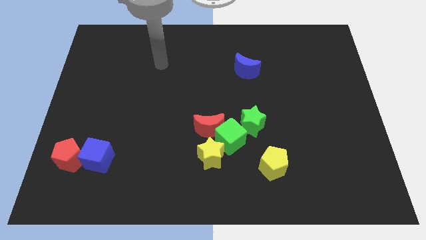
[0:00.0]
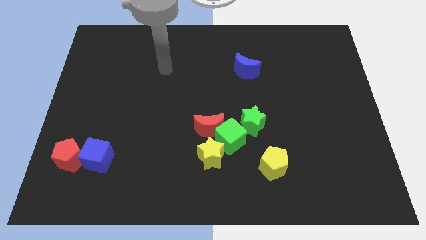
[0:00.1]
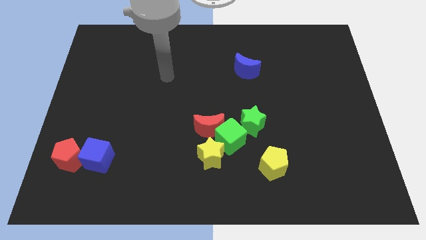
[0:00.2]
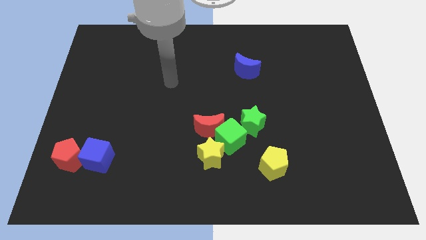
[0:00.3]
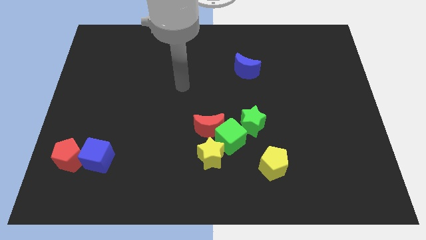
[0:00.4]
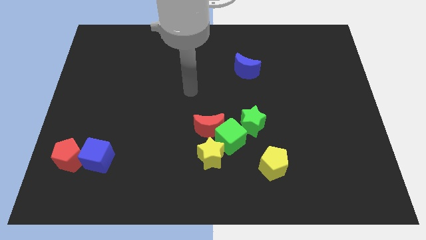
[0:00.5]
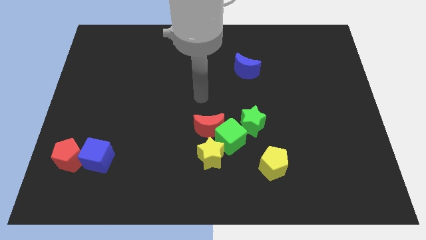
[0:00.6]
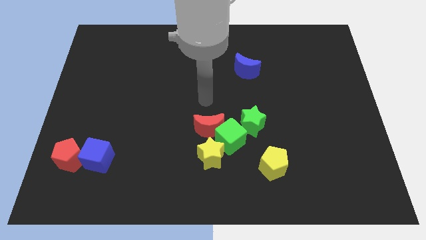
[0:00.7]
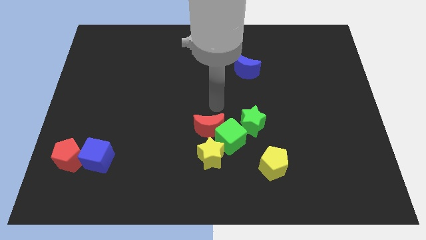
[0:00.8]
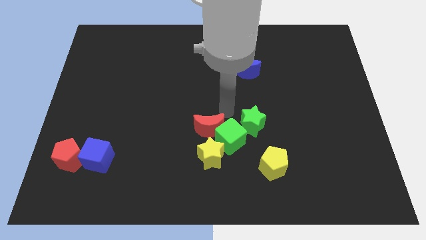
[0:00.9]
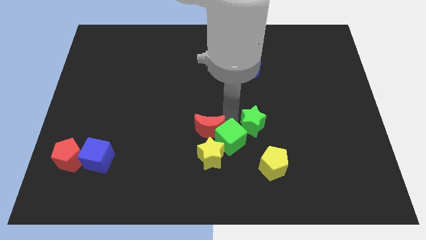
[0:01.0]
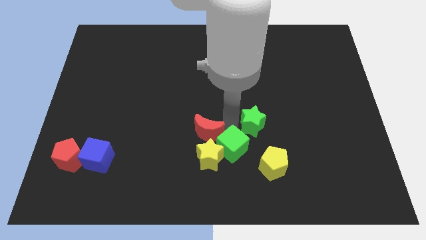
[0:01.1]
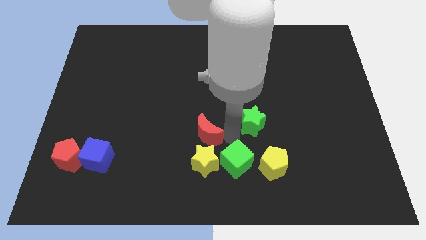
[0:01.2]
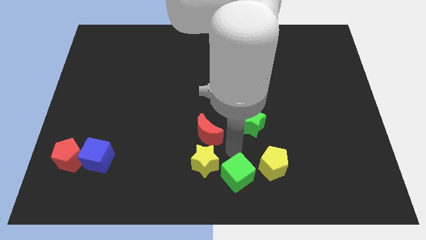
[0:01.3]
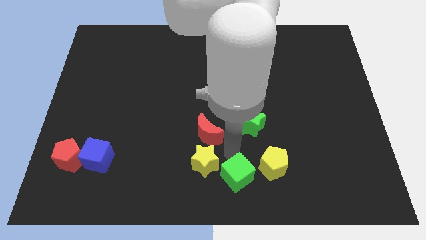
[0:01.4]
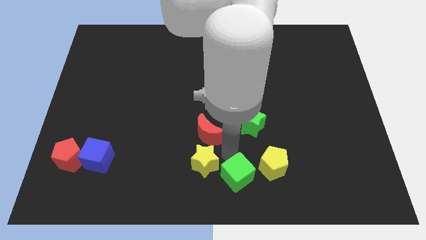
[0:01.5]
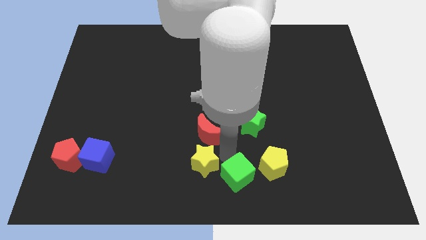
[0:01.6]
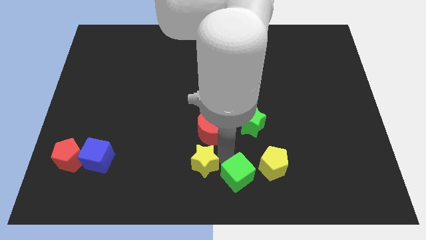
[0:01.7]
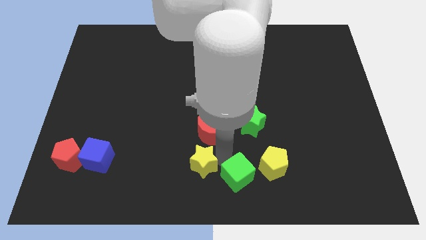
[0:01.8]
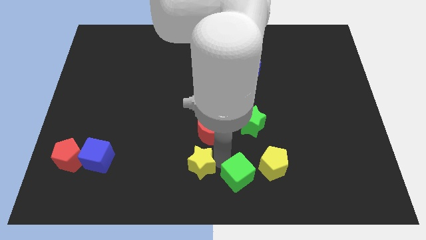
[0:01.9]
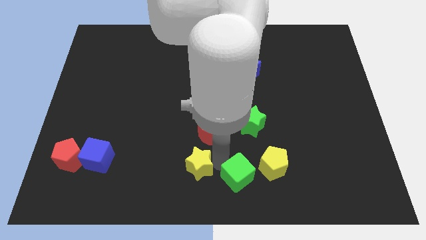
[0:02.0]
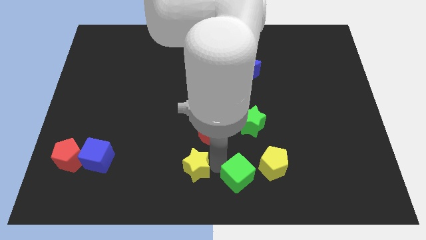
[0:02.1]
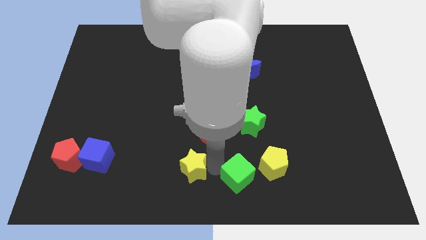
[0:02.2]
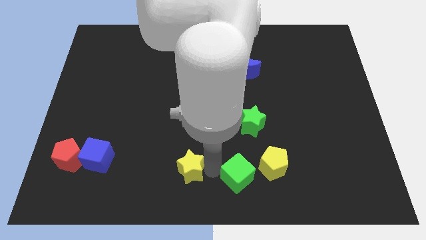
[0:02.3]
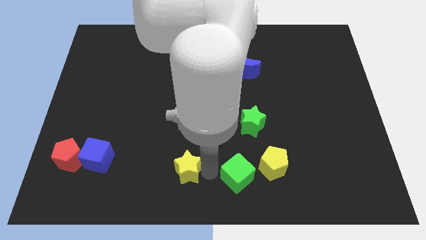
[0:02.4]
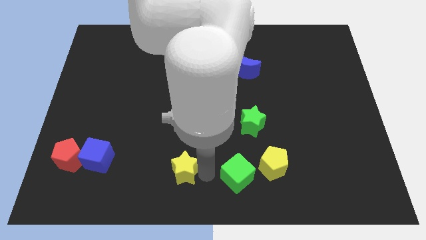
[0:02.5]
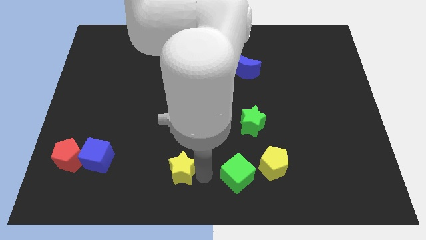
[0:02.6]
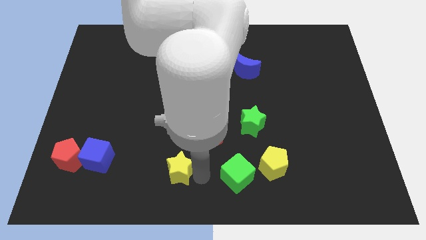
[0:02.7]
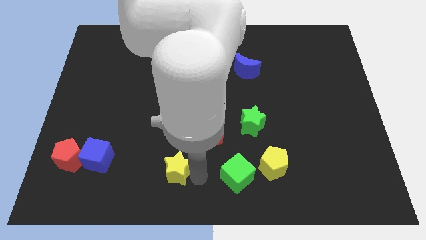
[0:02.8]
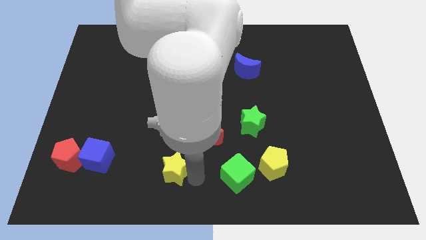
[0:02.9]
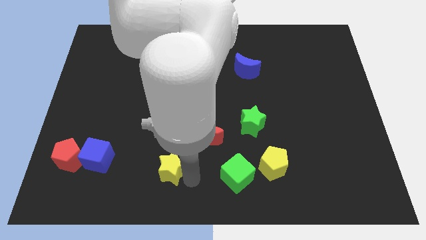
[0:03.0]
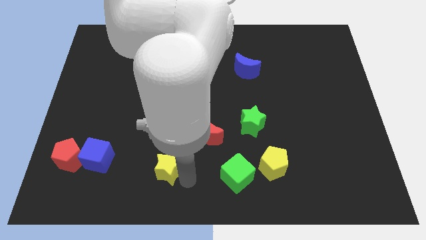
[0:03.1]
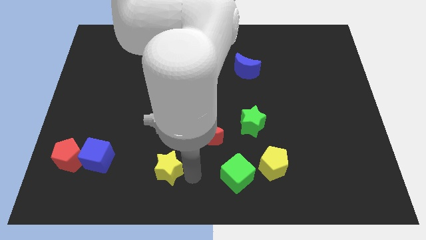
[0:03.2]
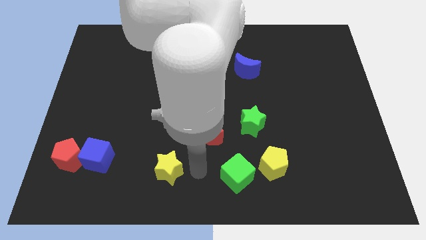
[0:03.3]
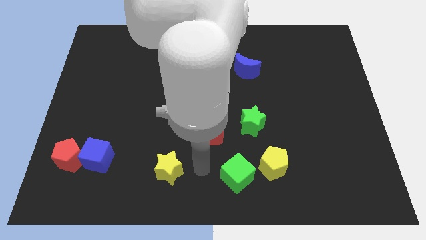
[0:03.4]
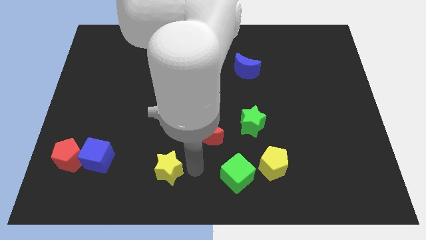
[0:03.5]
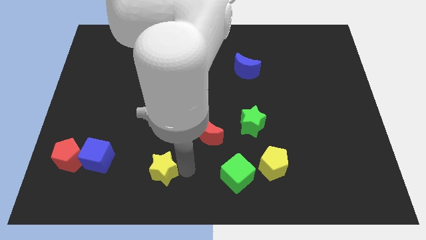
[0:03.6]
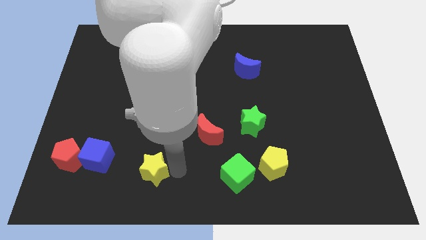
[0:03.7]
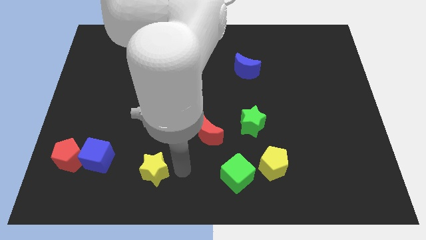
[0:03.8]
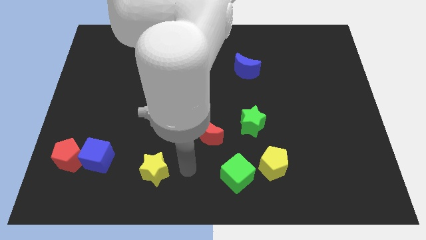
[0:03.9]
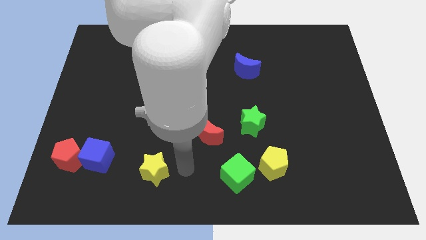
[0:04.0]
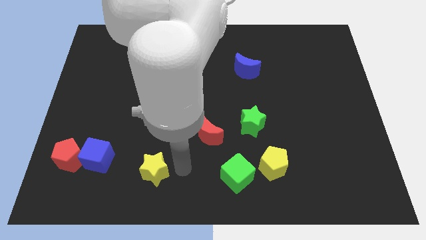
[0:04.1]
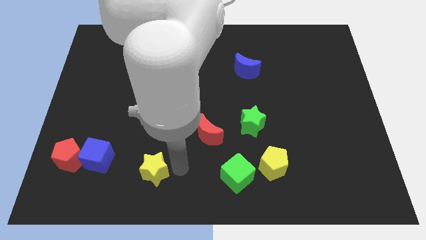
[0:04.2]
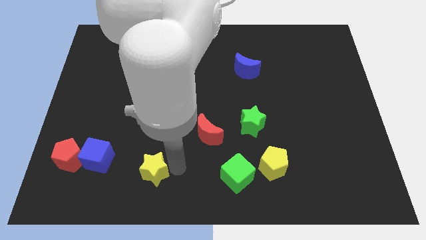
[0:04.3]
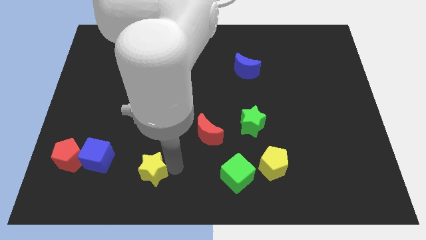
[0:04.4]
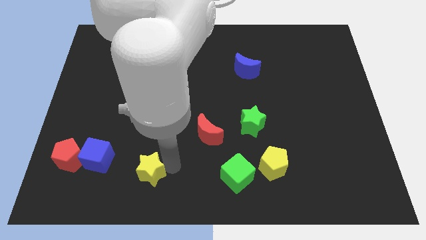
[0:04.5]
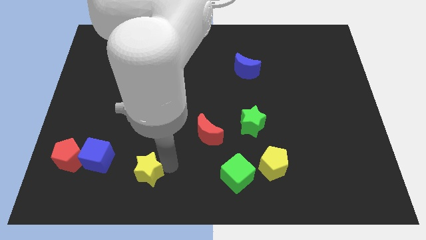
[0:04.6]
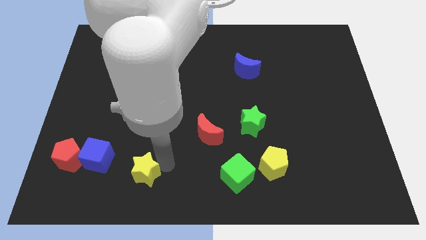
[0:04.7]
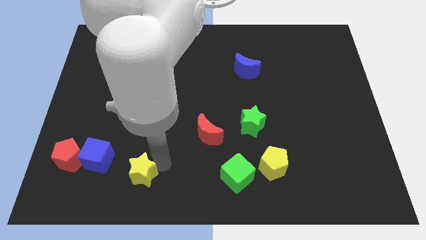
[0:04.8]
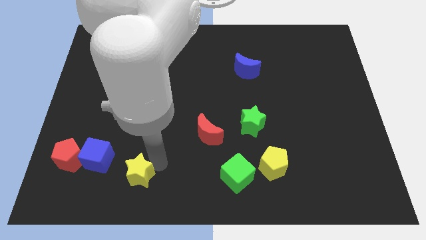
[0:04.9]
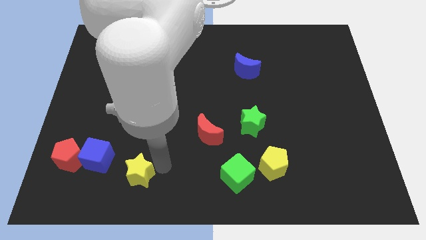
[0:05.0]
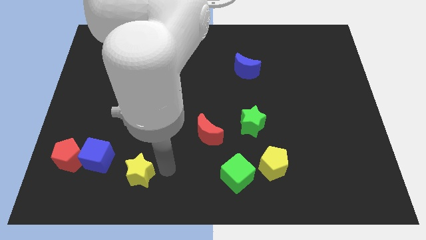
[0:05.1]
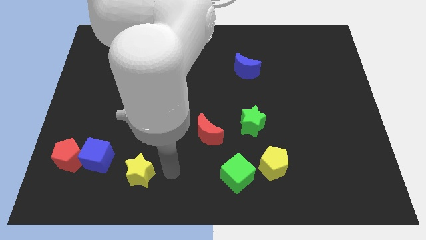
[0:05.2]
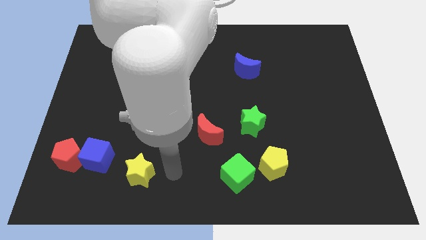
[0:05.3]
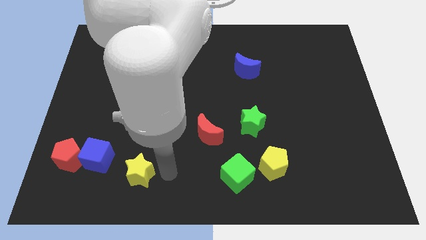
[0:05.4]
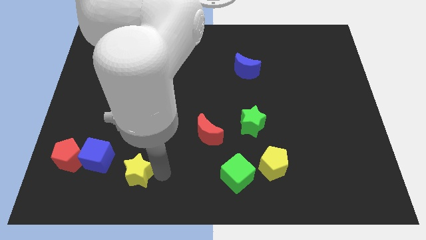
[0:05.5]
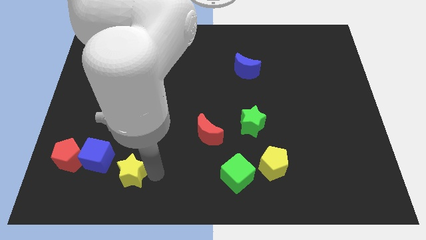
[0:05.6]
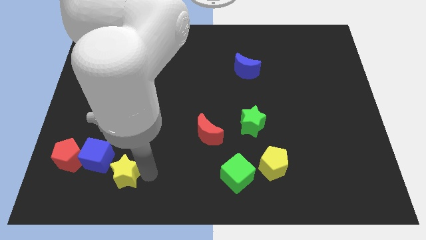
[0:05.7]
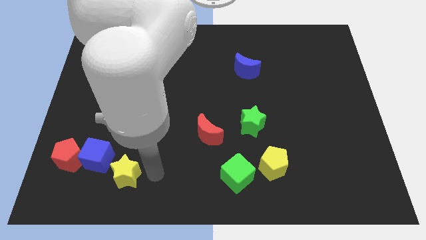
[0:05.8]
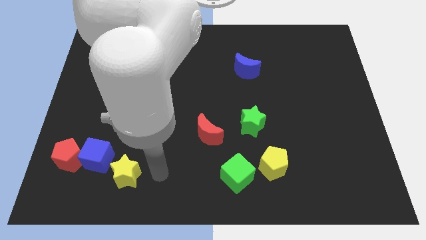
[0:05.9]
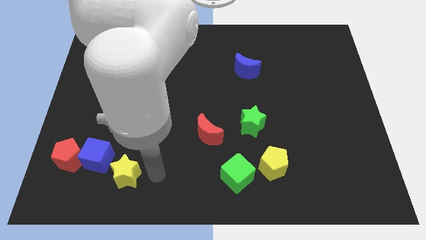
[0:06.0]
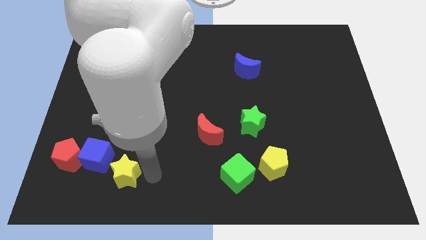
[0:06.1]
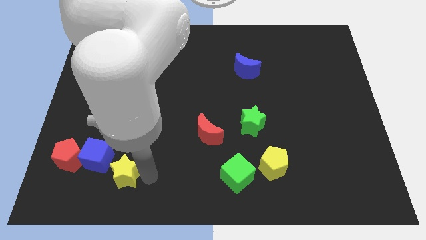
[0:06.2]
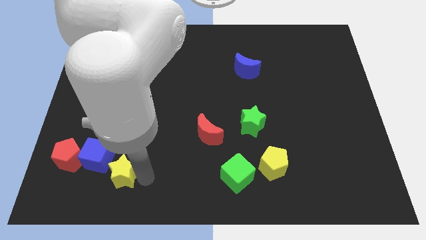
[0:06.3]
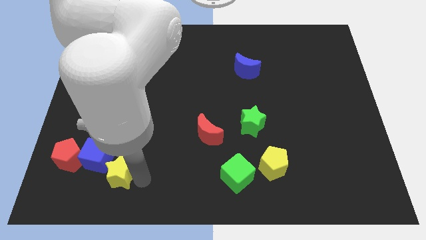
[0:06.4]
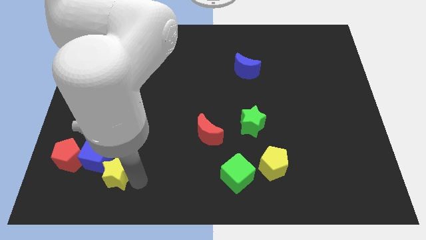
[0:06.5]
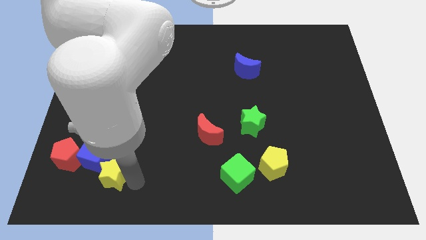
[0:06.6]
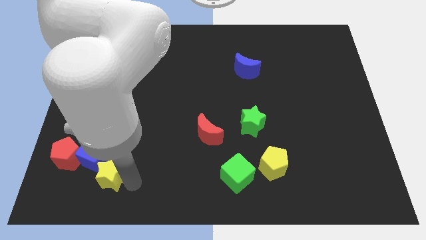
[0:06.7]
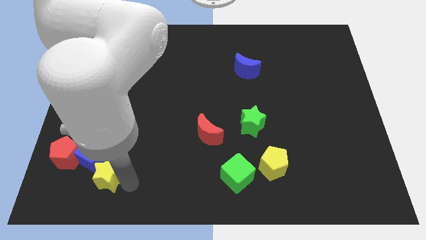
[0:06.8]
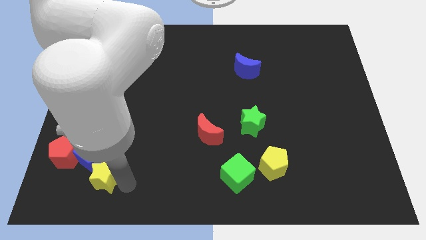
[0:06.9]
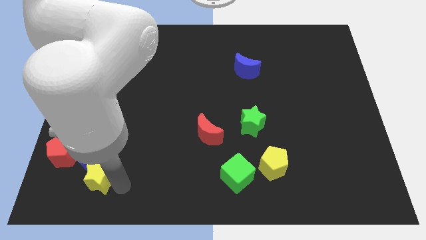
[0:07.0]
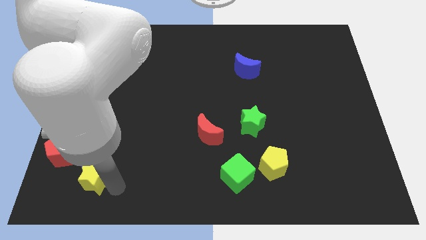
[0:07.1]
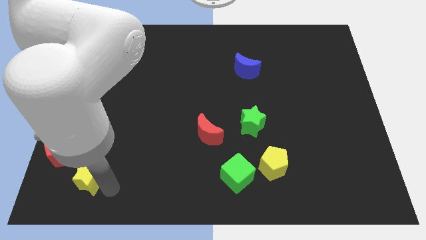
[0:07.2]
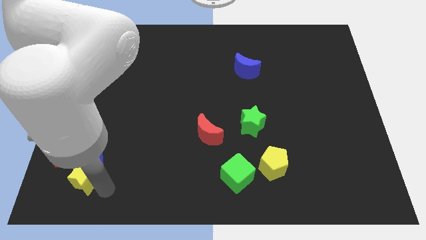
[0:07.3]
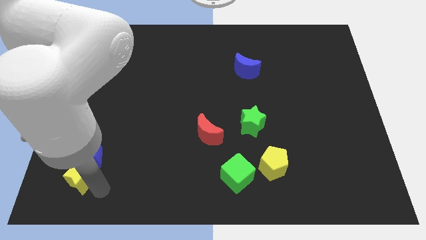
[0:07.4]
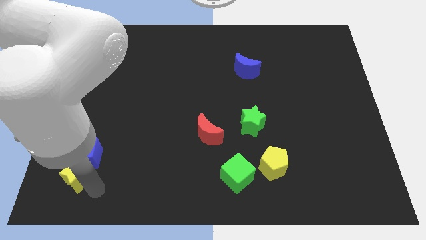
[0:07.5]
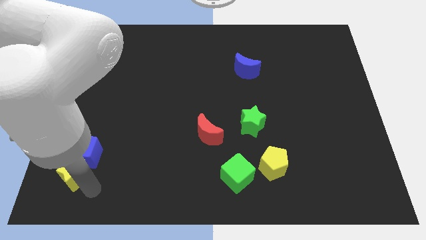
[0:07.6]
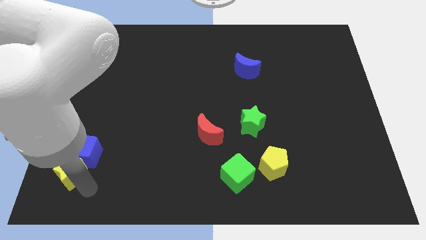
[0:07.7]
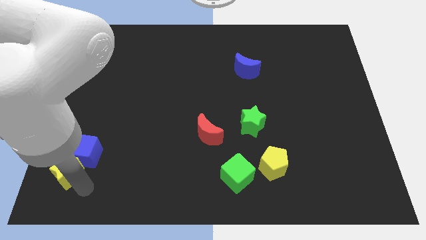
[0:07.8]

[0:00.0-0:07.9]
move the yellow star towards the red pentagon

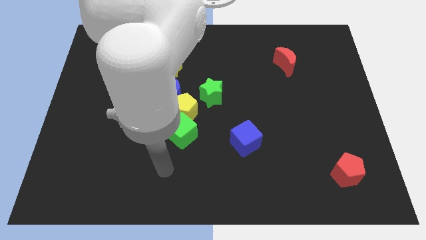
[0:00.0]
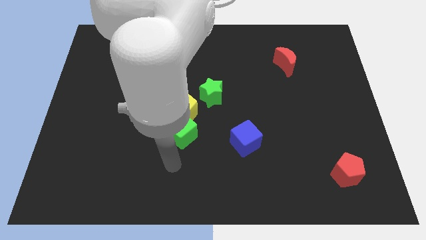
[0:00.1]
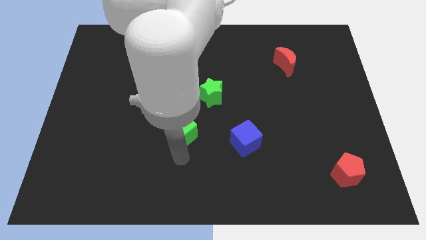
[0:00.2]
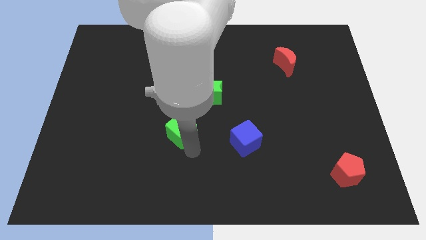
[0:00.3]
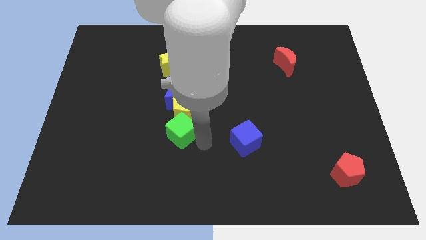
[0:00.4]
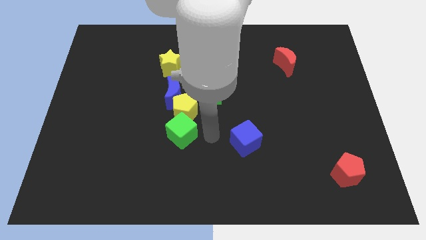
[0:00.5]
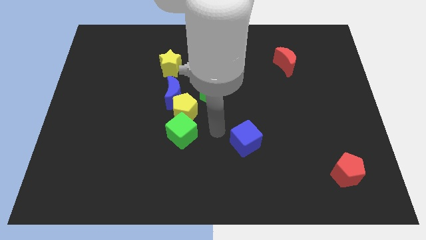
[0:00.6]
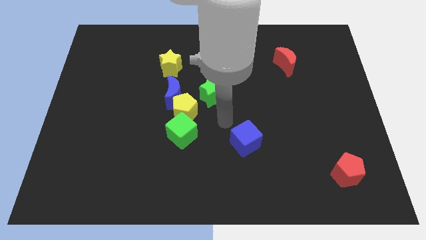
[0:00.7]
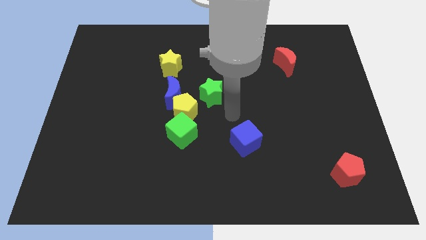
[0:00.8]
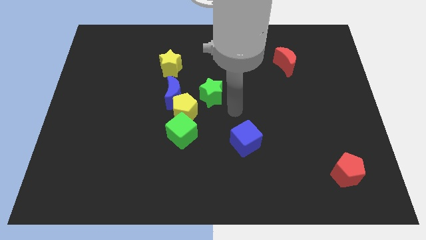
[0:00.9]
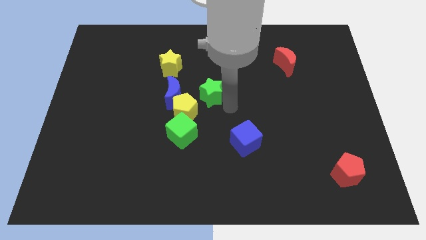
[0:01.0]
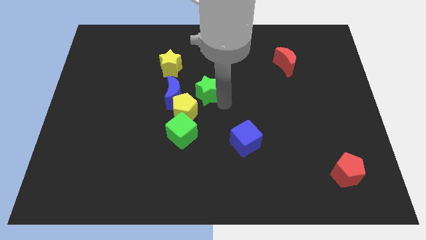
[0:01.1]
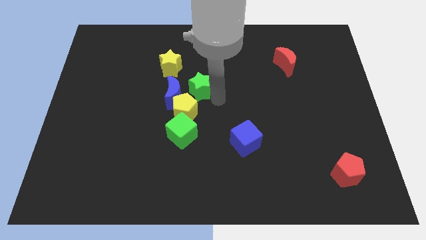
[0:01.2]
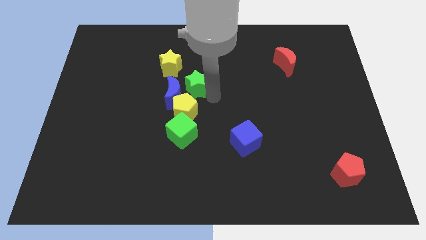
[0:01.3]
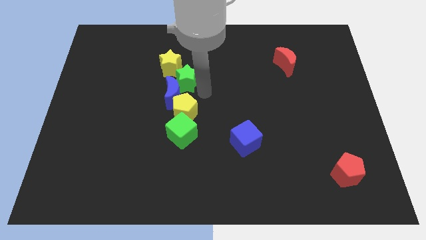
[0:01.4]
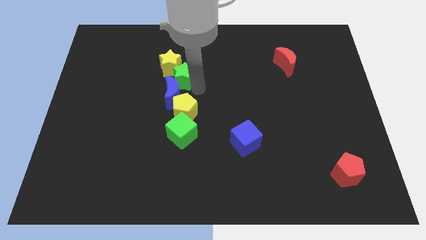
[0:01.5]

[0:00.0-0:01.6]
slide the green star towards the yellow star
